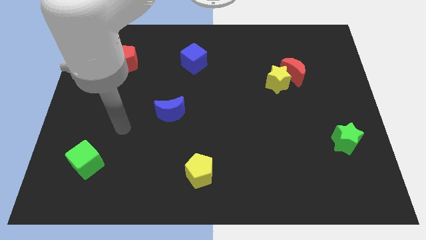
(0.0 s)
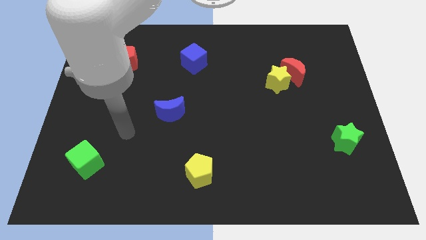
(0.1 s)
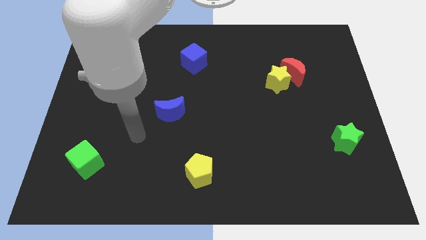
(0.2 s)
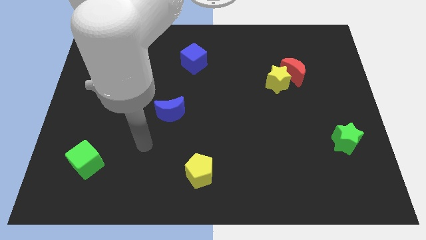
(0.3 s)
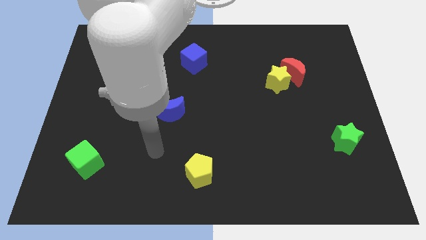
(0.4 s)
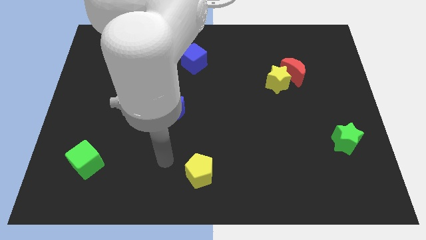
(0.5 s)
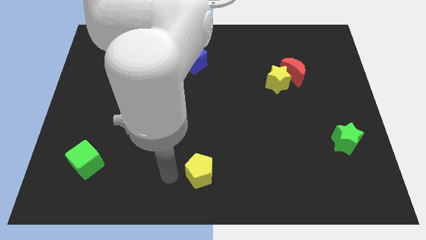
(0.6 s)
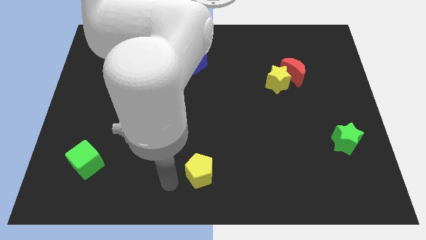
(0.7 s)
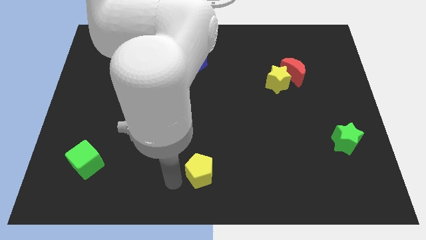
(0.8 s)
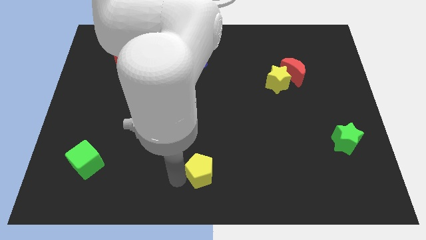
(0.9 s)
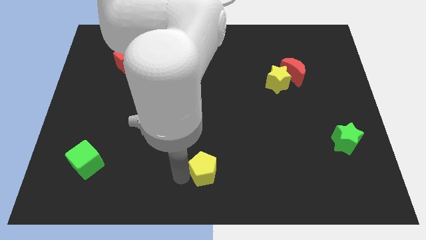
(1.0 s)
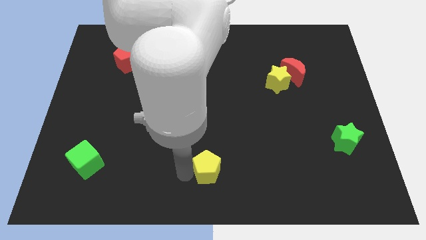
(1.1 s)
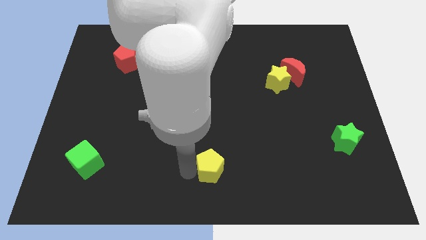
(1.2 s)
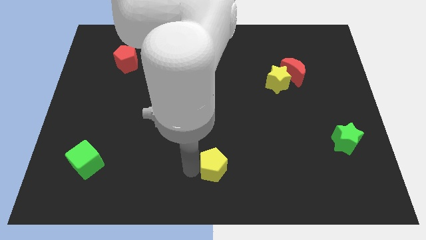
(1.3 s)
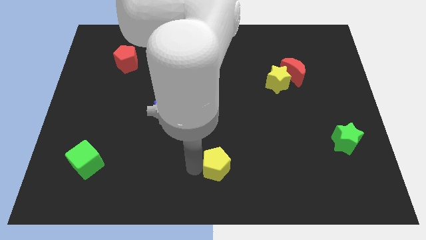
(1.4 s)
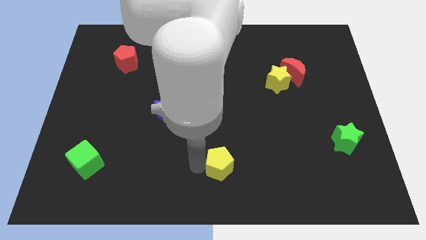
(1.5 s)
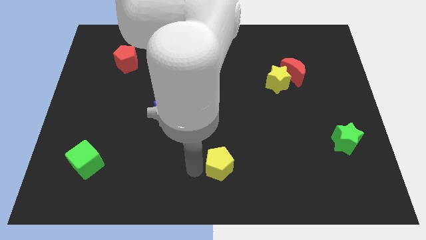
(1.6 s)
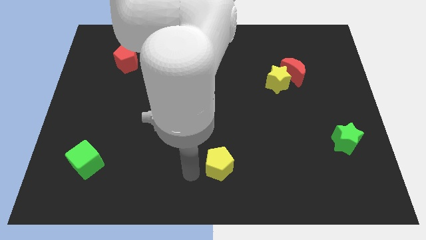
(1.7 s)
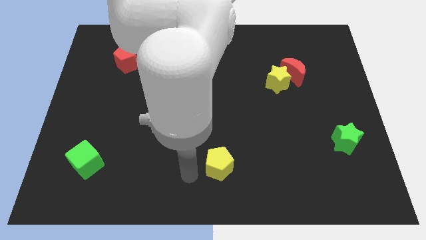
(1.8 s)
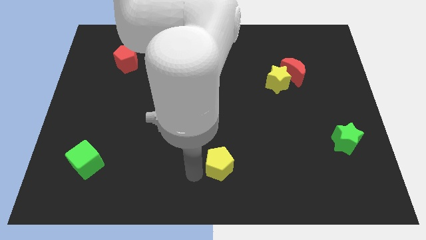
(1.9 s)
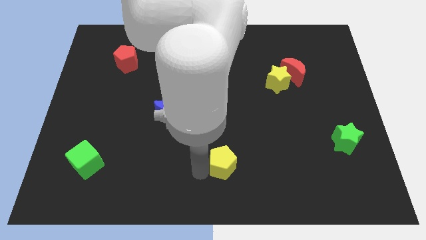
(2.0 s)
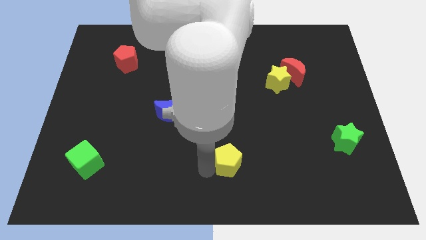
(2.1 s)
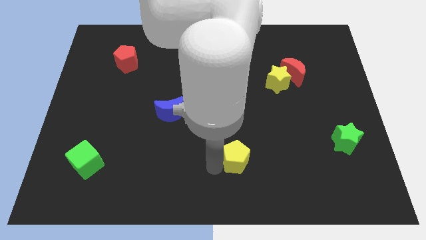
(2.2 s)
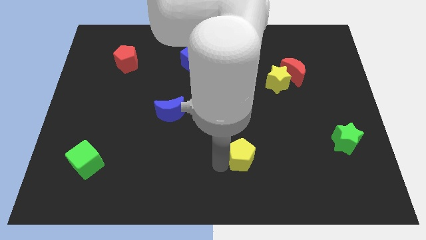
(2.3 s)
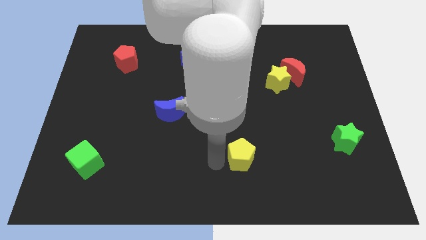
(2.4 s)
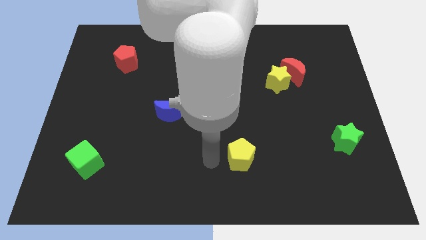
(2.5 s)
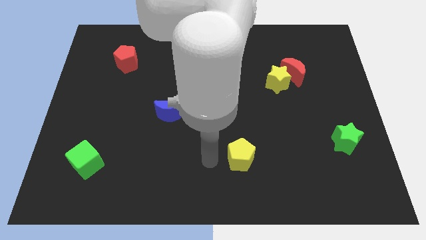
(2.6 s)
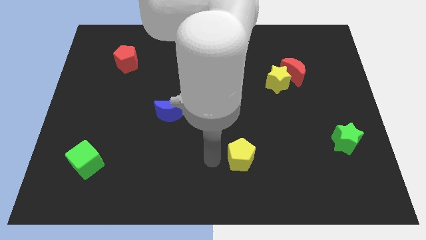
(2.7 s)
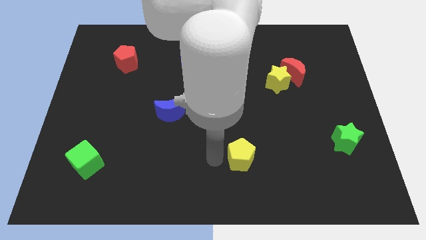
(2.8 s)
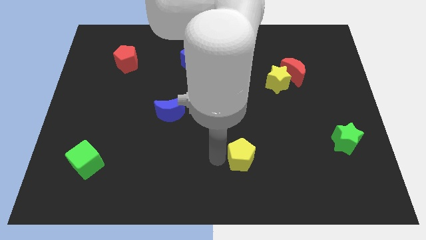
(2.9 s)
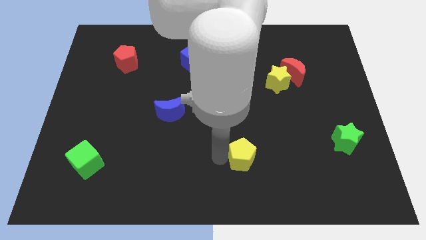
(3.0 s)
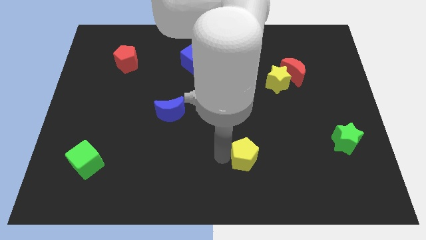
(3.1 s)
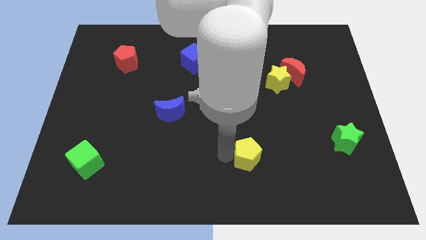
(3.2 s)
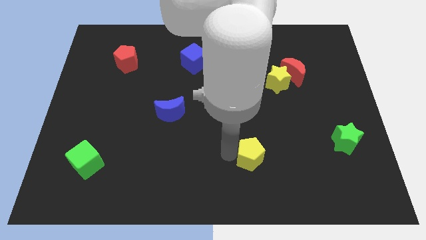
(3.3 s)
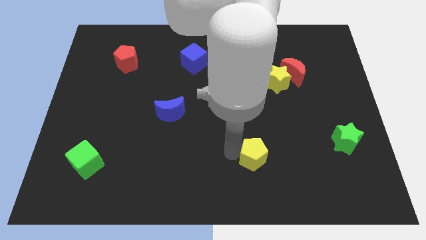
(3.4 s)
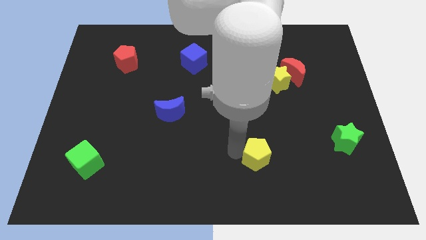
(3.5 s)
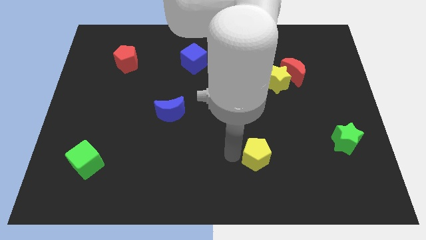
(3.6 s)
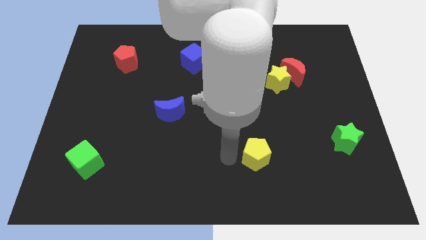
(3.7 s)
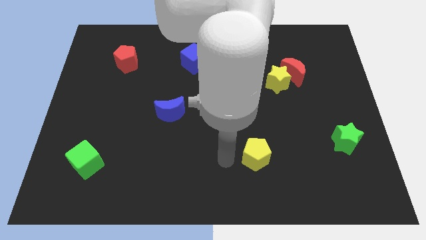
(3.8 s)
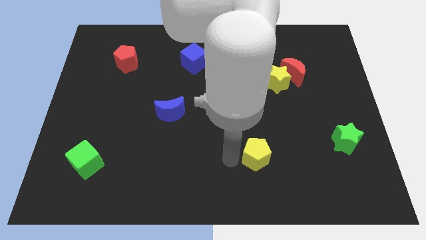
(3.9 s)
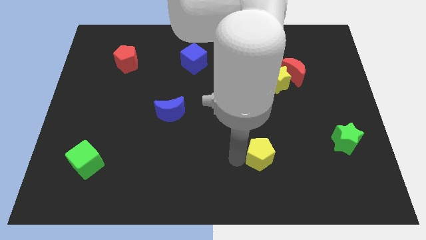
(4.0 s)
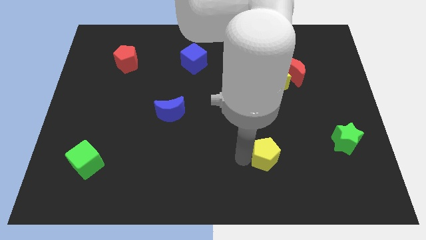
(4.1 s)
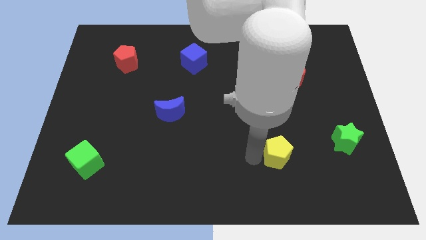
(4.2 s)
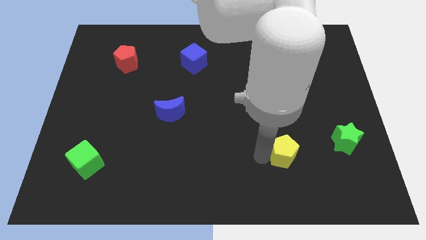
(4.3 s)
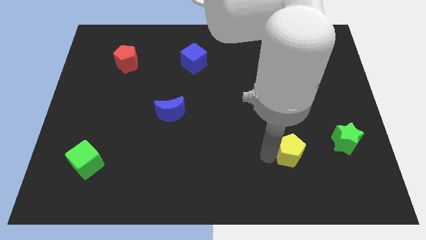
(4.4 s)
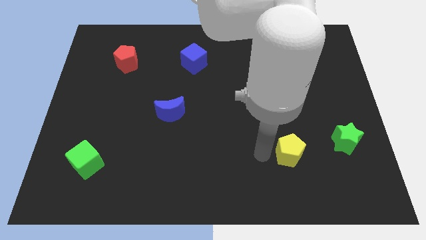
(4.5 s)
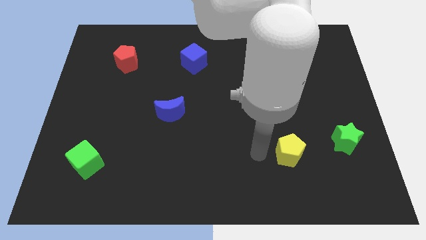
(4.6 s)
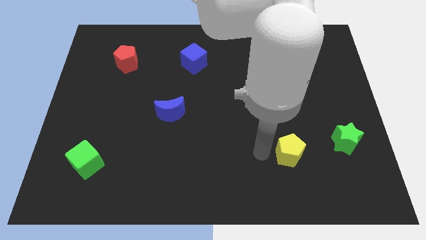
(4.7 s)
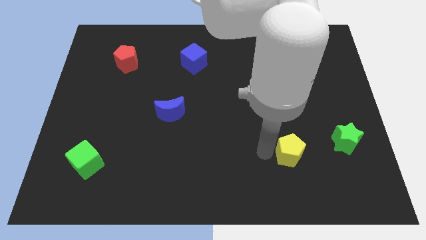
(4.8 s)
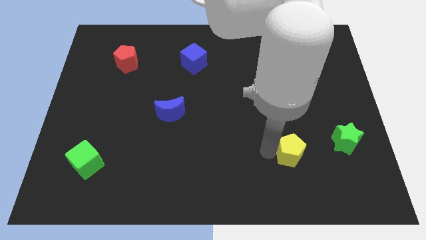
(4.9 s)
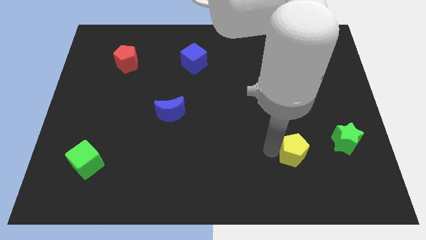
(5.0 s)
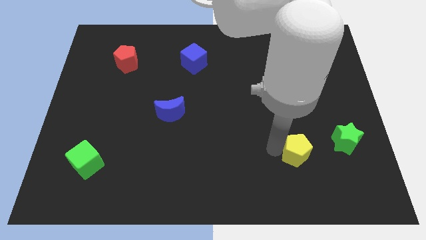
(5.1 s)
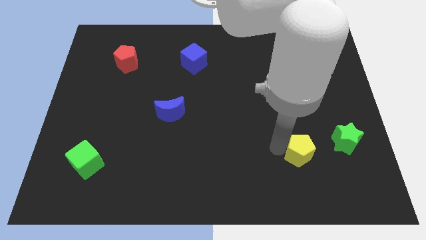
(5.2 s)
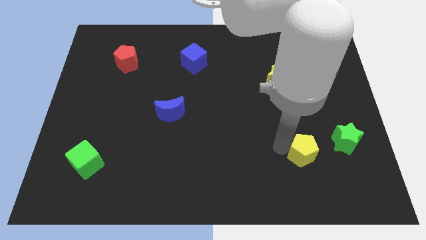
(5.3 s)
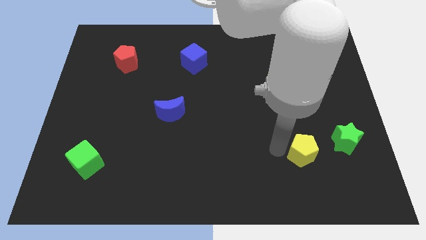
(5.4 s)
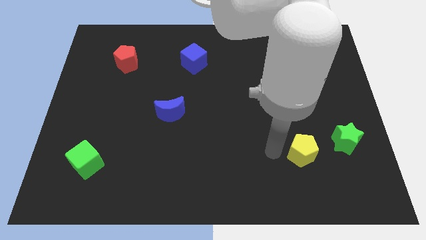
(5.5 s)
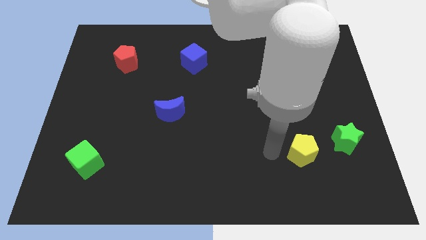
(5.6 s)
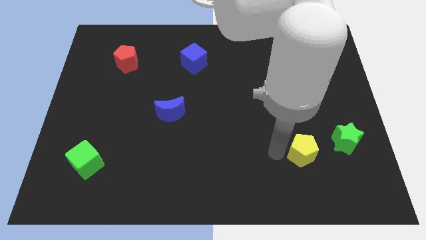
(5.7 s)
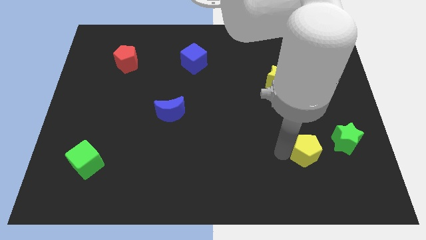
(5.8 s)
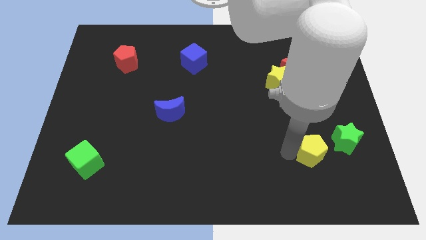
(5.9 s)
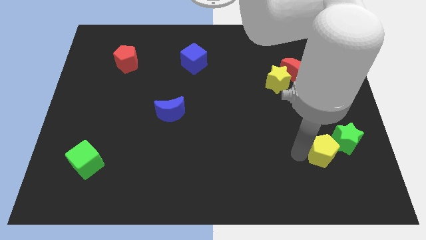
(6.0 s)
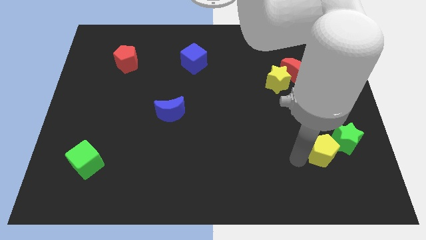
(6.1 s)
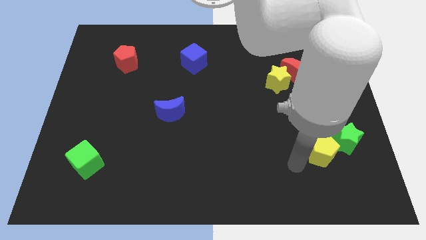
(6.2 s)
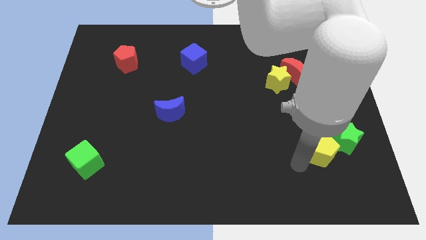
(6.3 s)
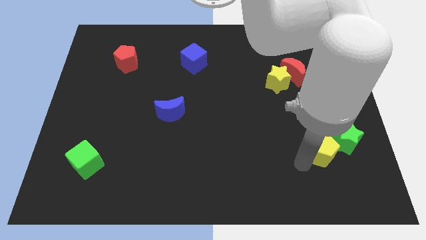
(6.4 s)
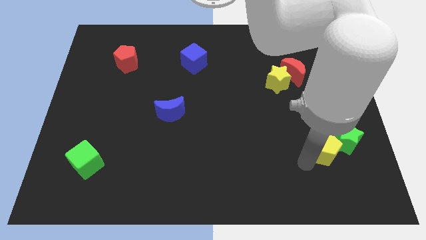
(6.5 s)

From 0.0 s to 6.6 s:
move the yellow pentagon next to the green star

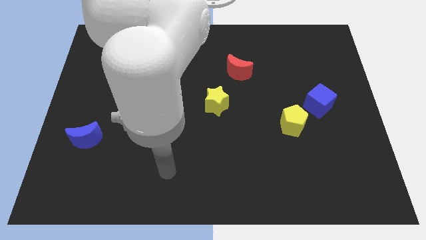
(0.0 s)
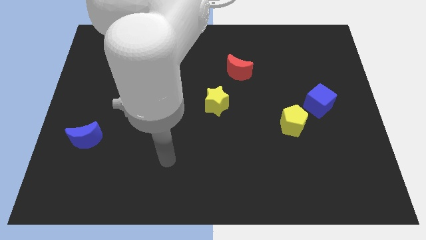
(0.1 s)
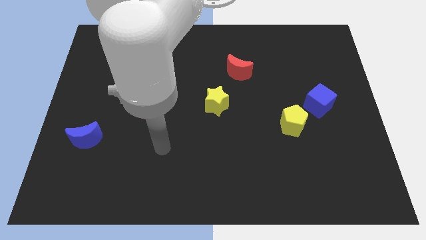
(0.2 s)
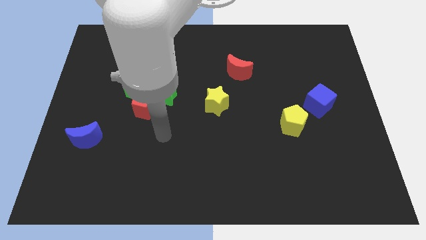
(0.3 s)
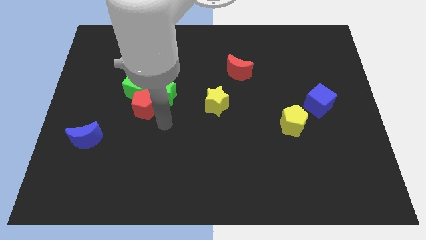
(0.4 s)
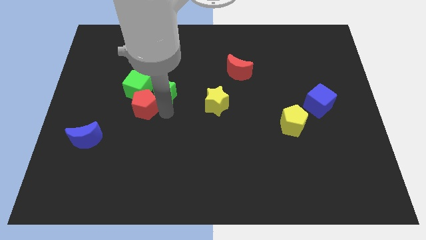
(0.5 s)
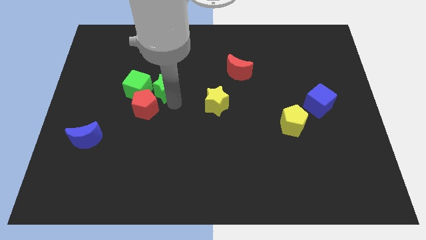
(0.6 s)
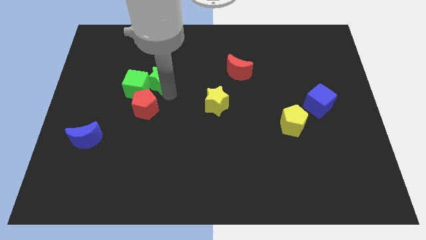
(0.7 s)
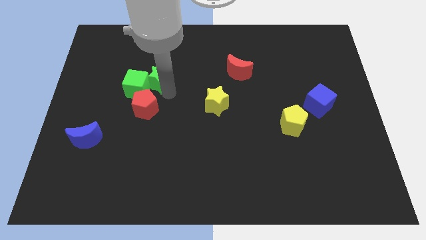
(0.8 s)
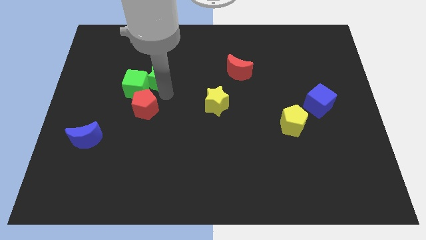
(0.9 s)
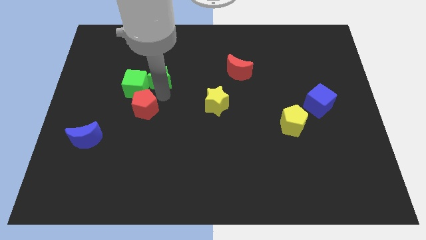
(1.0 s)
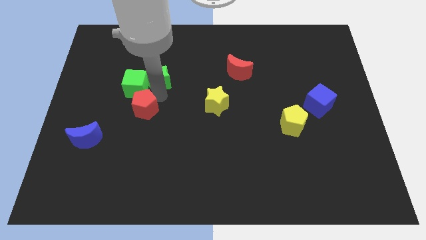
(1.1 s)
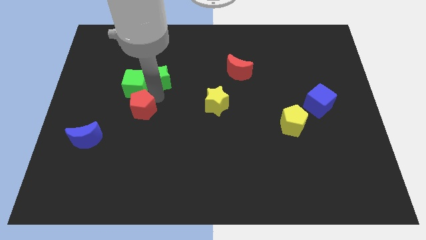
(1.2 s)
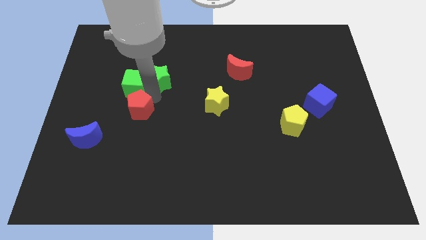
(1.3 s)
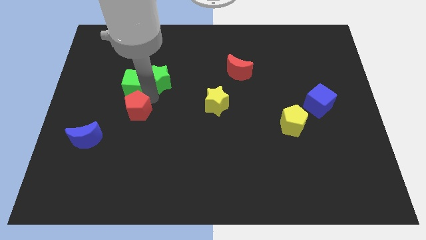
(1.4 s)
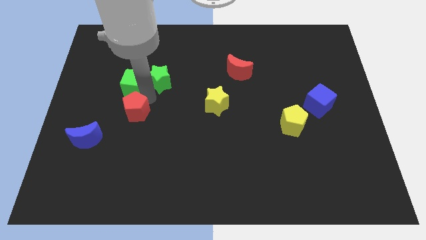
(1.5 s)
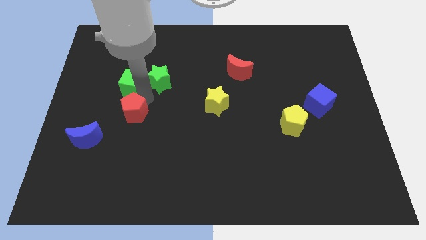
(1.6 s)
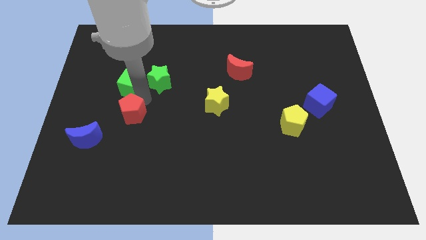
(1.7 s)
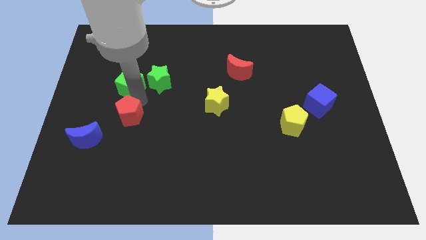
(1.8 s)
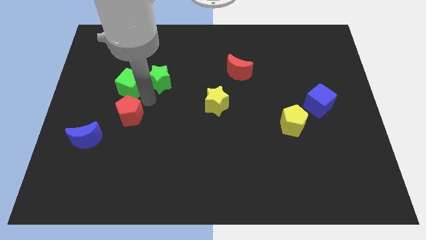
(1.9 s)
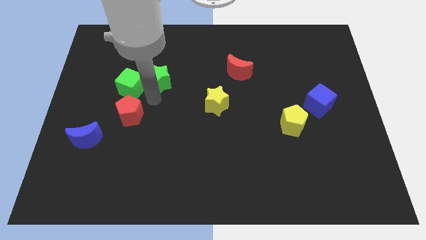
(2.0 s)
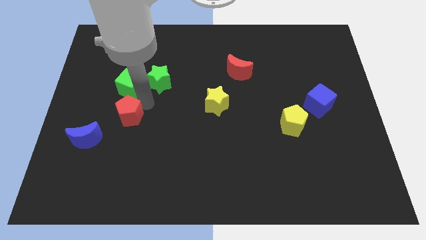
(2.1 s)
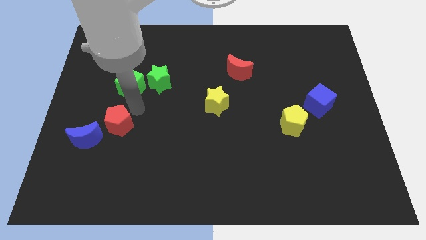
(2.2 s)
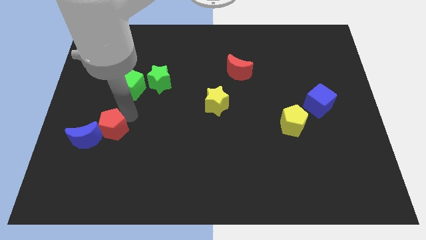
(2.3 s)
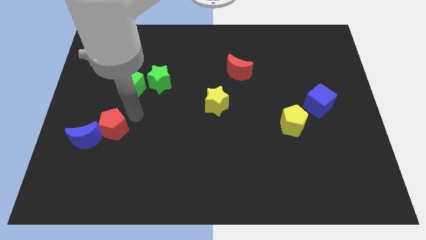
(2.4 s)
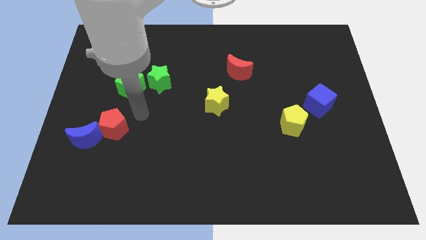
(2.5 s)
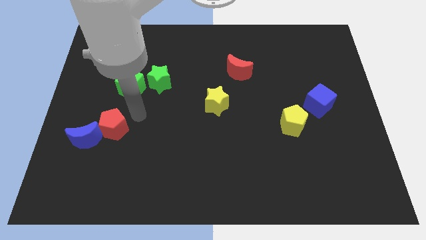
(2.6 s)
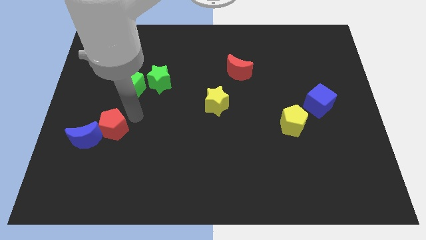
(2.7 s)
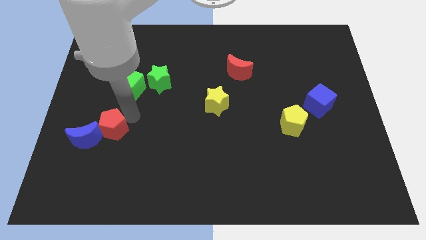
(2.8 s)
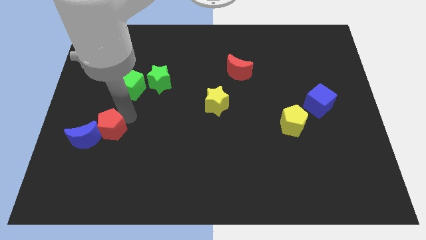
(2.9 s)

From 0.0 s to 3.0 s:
put the red pentagon to the blue moon
